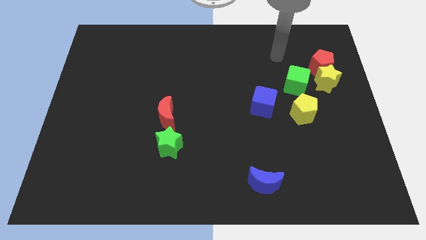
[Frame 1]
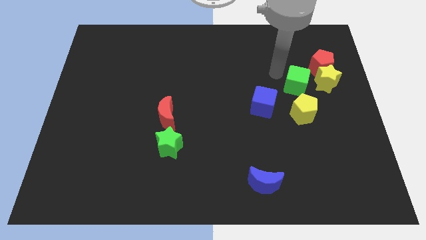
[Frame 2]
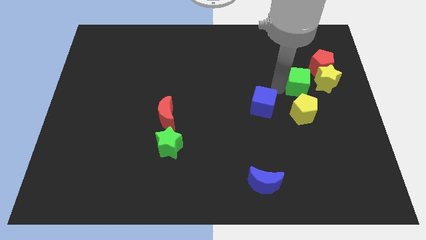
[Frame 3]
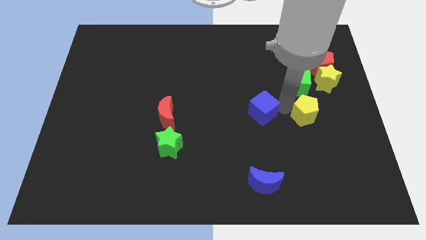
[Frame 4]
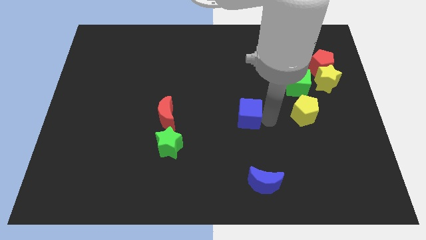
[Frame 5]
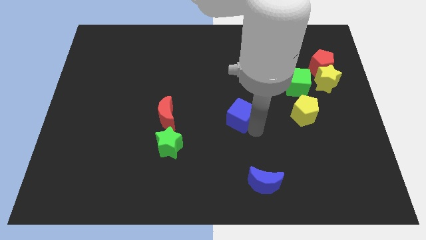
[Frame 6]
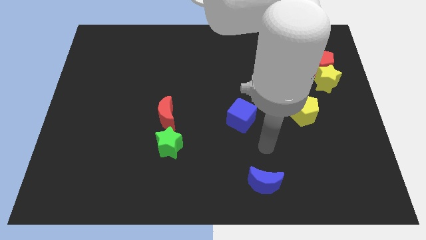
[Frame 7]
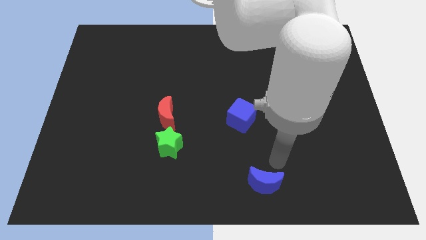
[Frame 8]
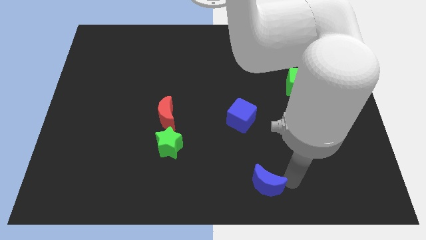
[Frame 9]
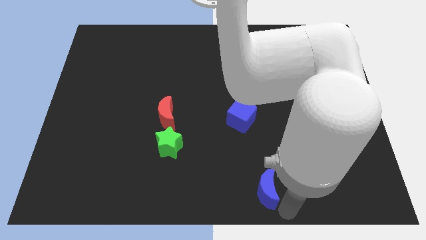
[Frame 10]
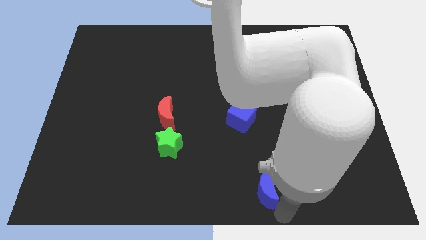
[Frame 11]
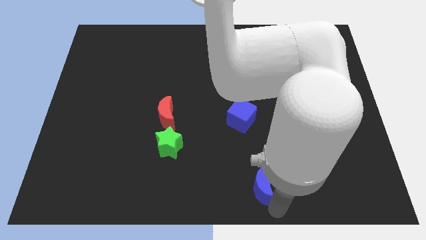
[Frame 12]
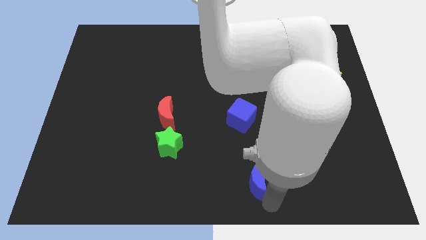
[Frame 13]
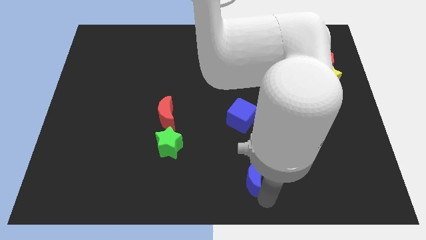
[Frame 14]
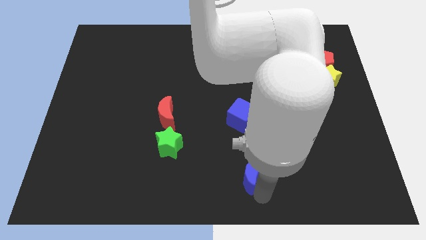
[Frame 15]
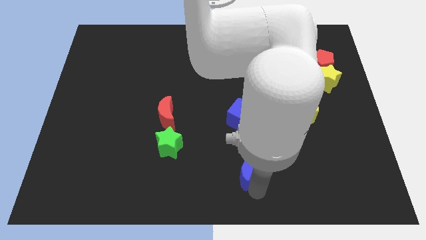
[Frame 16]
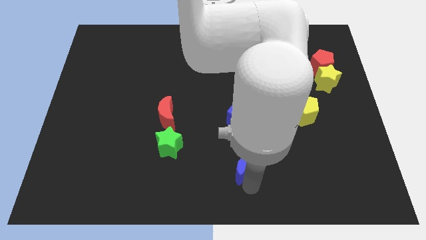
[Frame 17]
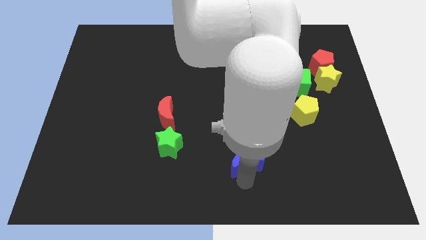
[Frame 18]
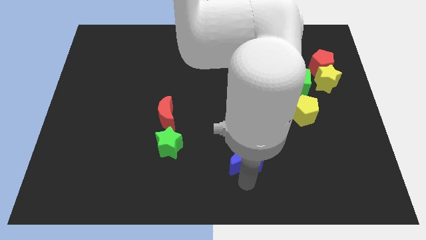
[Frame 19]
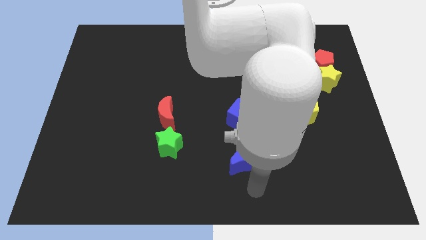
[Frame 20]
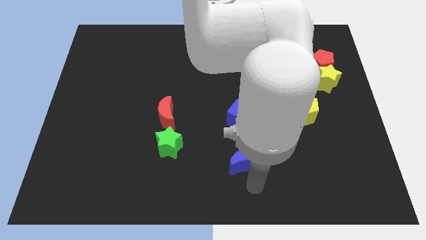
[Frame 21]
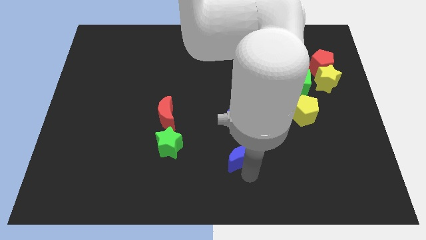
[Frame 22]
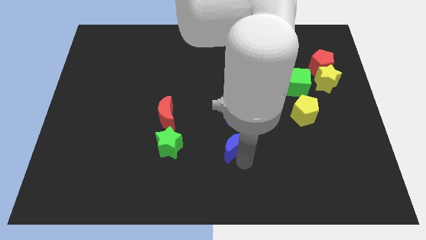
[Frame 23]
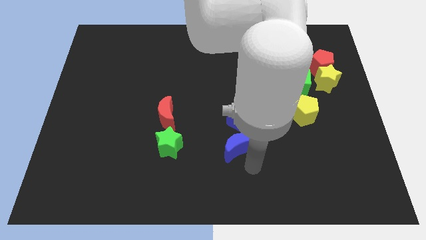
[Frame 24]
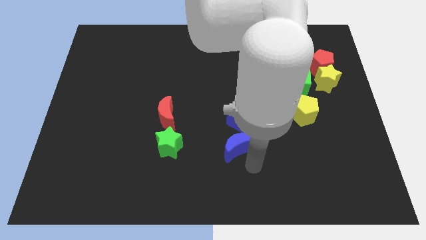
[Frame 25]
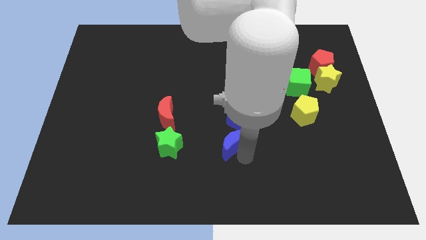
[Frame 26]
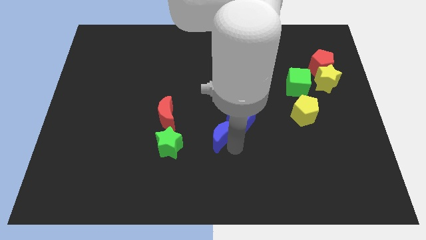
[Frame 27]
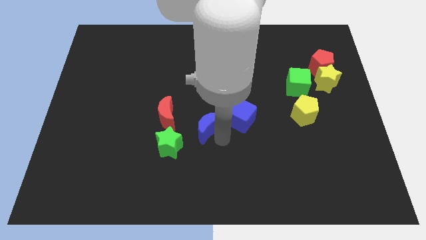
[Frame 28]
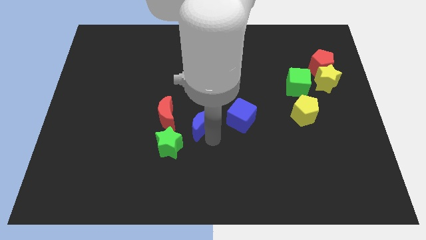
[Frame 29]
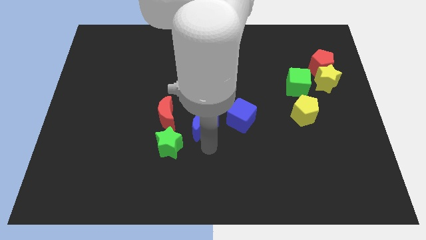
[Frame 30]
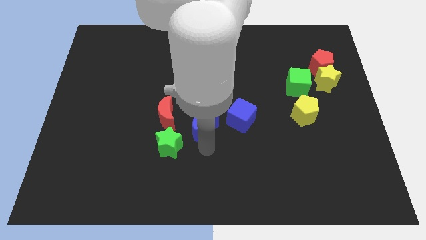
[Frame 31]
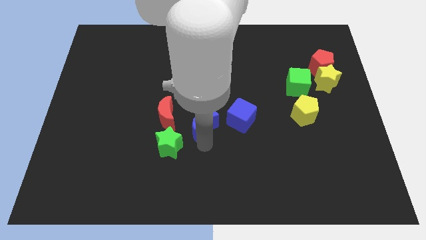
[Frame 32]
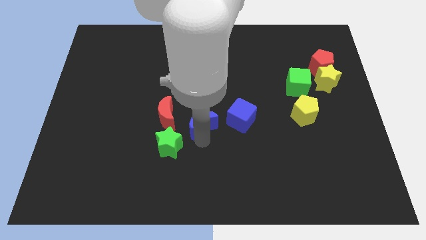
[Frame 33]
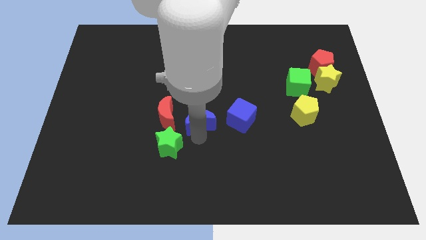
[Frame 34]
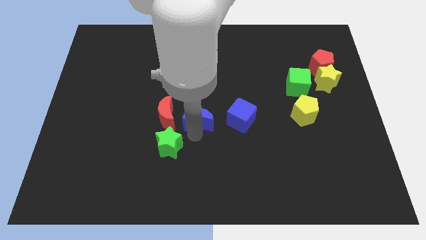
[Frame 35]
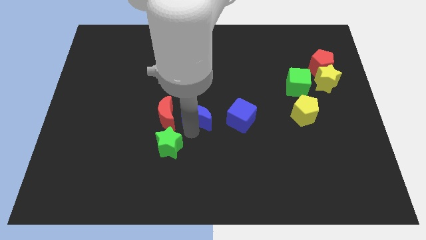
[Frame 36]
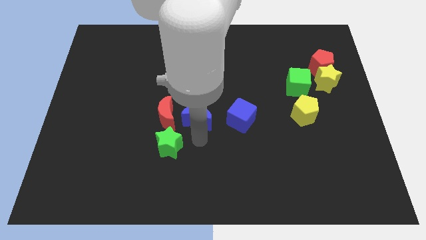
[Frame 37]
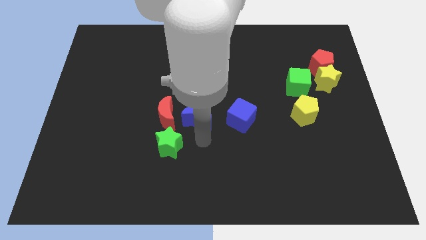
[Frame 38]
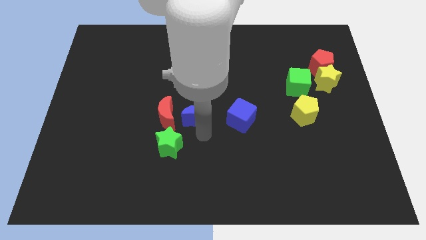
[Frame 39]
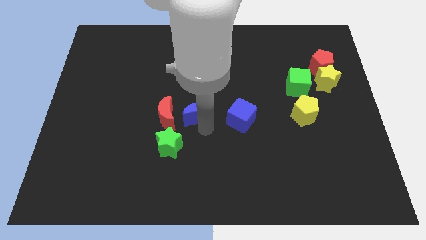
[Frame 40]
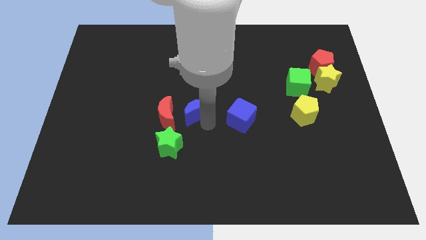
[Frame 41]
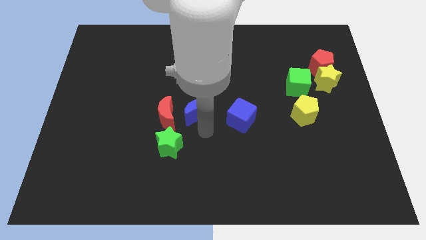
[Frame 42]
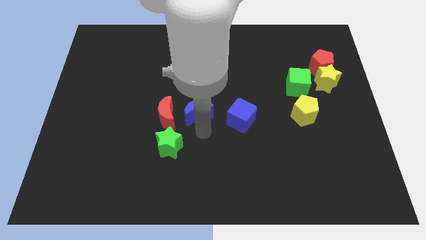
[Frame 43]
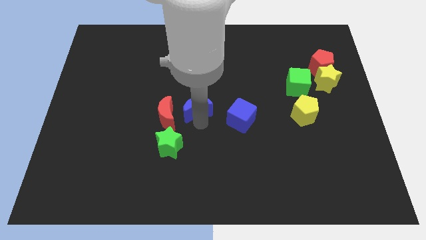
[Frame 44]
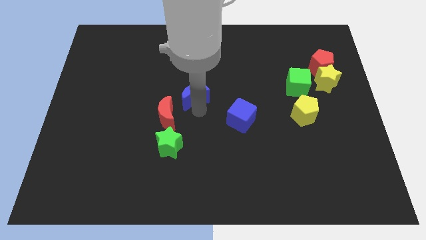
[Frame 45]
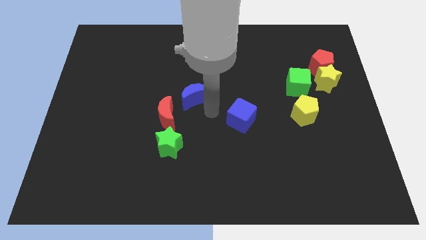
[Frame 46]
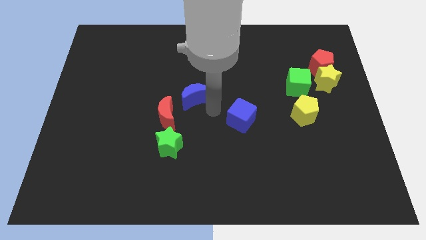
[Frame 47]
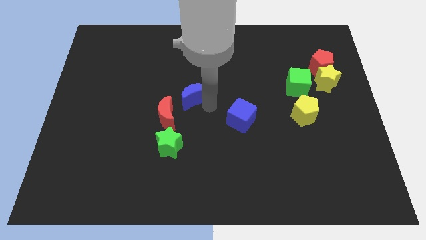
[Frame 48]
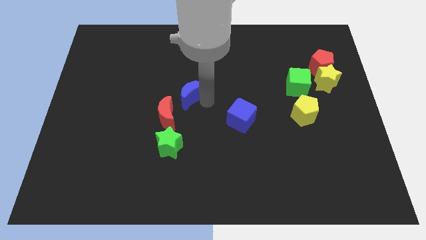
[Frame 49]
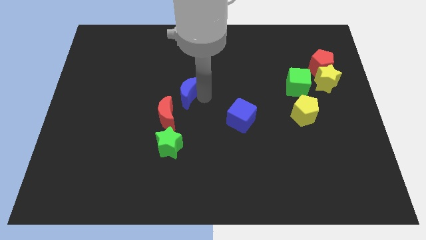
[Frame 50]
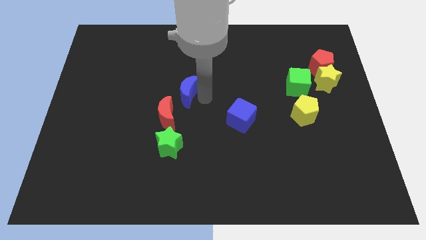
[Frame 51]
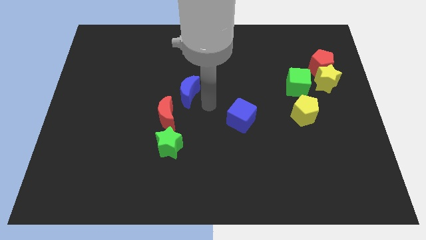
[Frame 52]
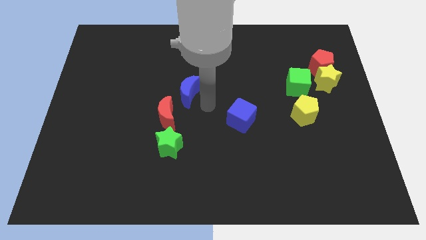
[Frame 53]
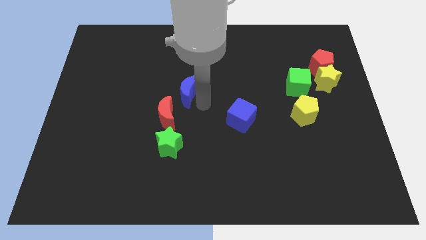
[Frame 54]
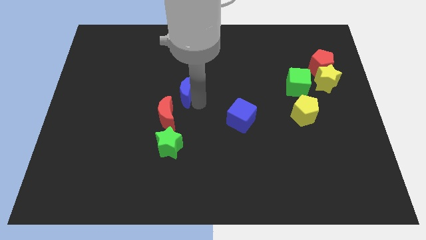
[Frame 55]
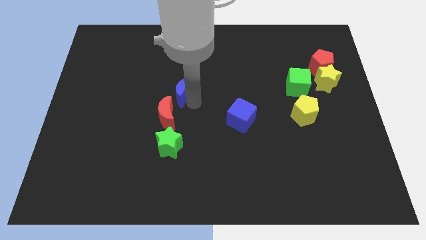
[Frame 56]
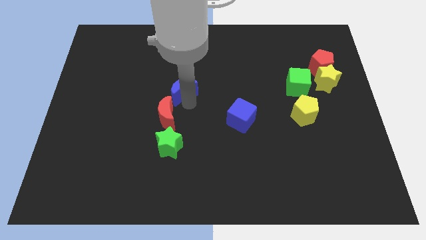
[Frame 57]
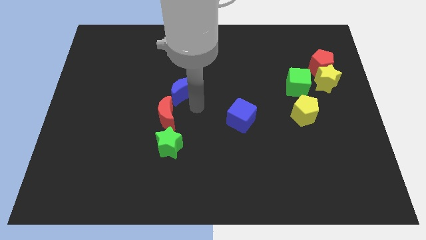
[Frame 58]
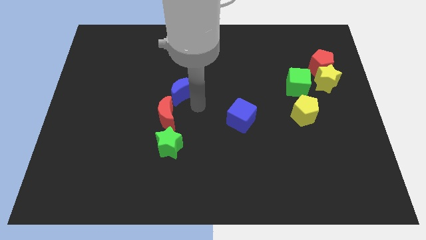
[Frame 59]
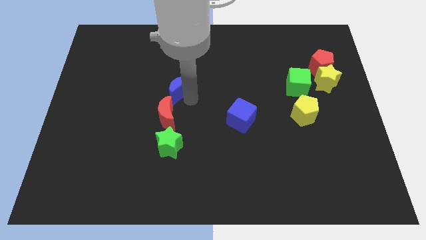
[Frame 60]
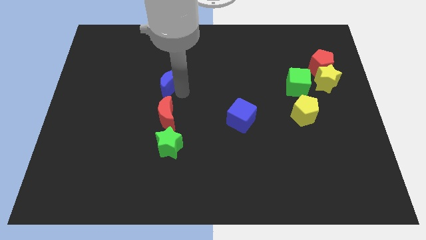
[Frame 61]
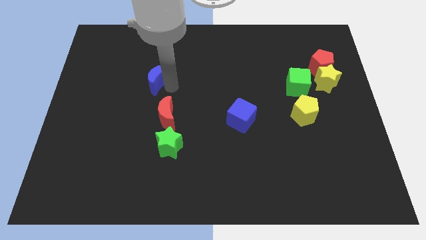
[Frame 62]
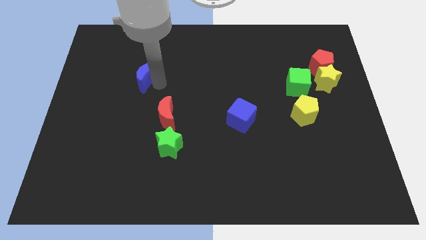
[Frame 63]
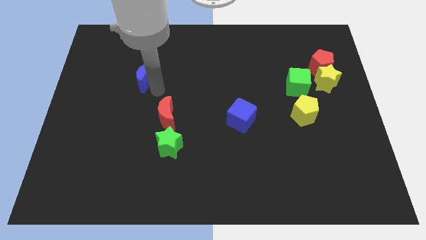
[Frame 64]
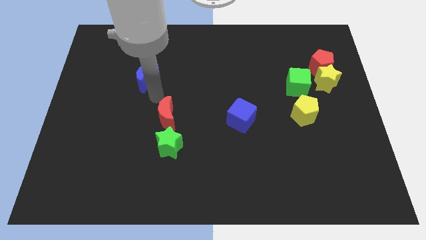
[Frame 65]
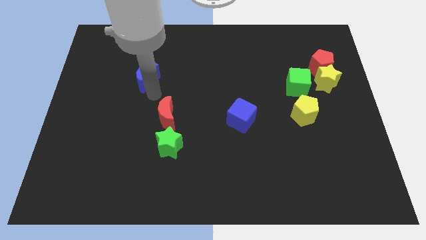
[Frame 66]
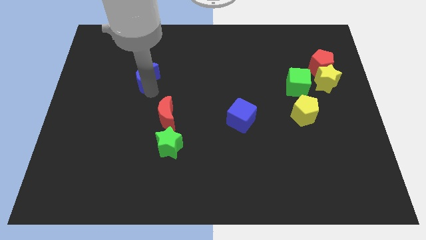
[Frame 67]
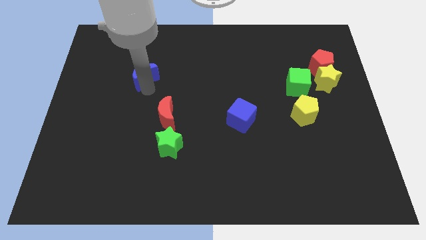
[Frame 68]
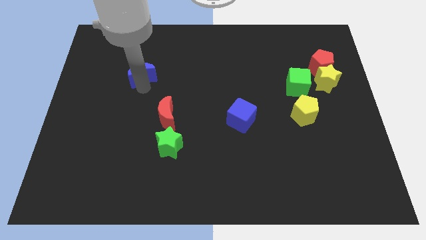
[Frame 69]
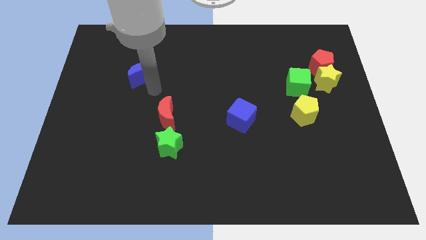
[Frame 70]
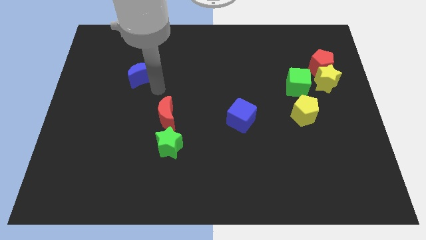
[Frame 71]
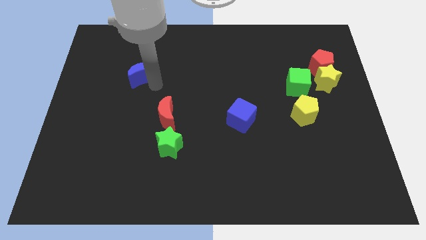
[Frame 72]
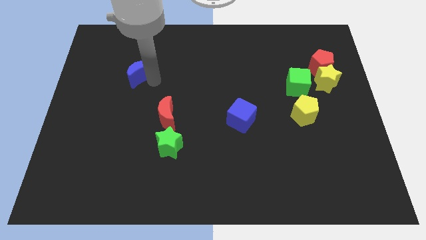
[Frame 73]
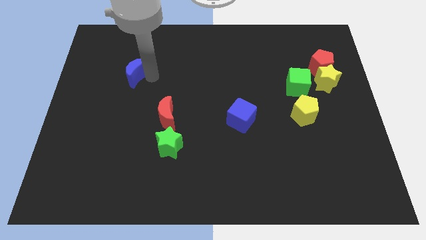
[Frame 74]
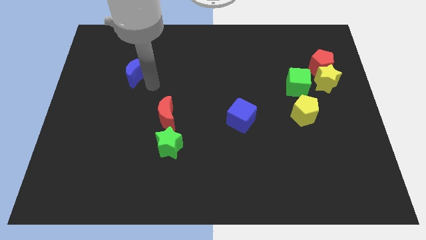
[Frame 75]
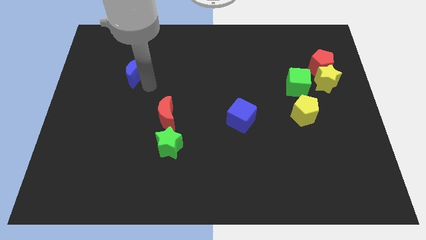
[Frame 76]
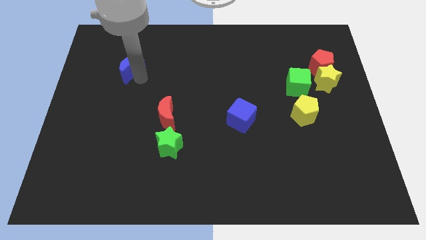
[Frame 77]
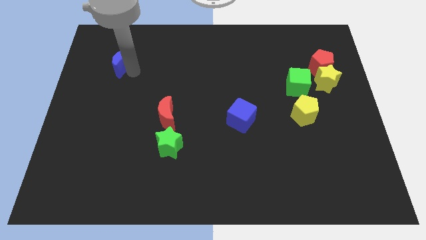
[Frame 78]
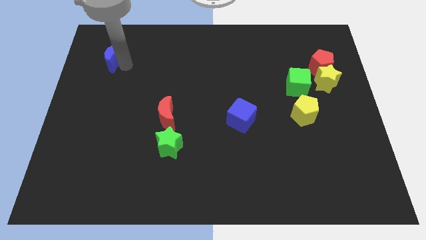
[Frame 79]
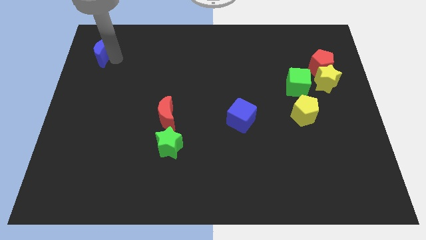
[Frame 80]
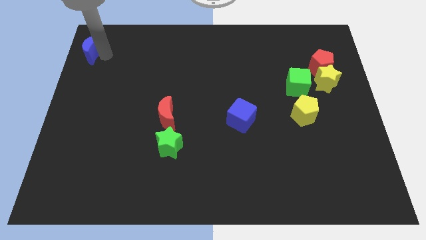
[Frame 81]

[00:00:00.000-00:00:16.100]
put the blue moon to the top left of the board
